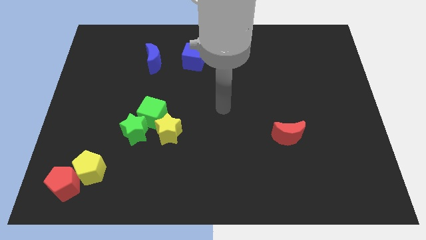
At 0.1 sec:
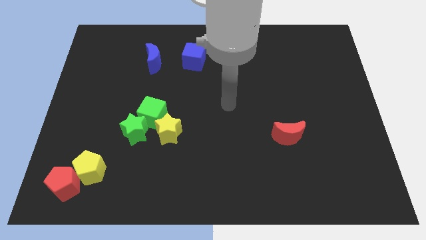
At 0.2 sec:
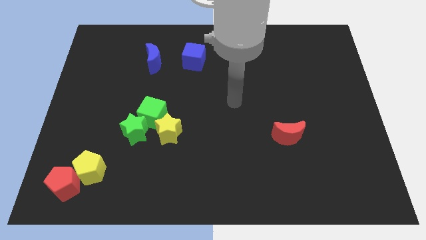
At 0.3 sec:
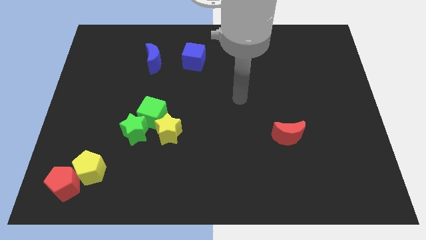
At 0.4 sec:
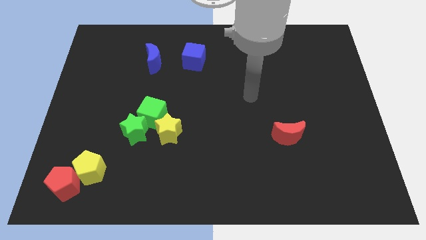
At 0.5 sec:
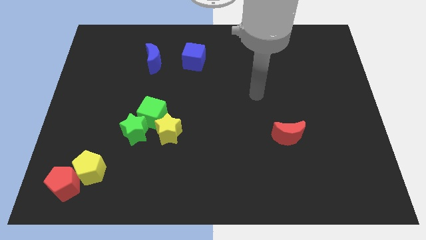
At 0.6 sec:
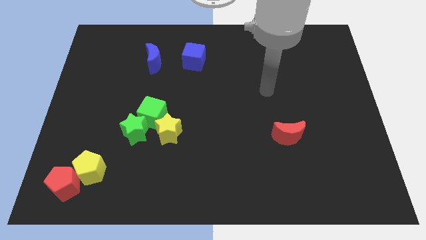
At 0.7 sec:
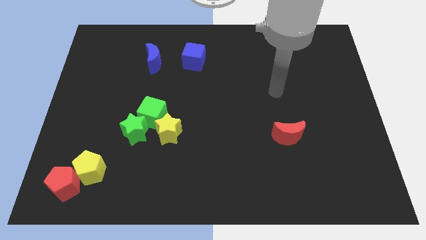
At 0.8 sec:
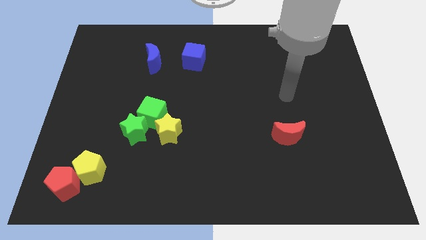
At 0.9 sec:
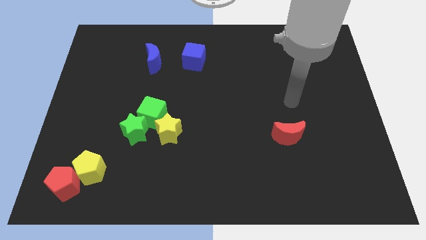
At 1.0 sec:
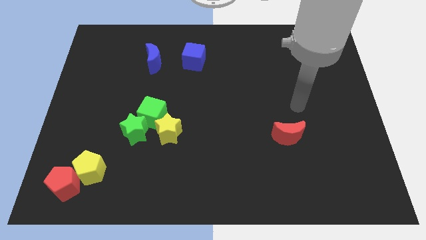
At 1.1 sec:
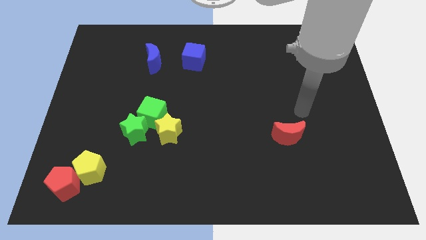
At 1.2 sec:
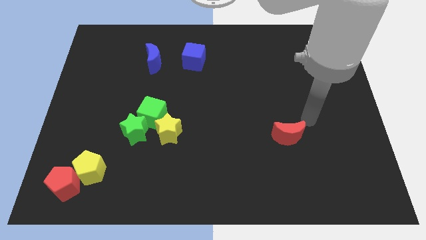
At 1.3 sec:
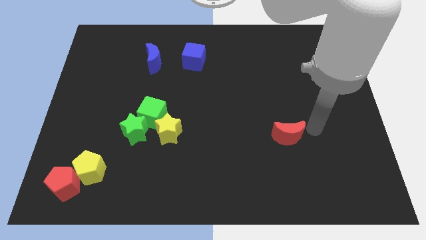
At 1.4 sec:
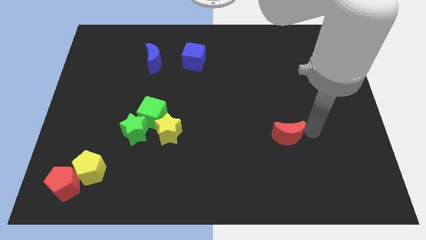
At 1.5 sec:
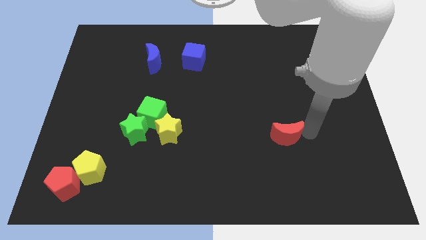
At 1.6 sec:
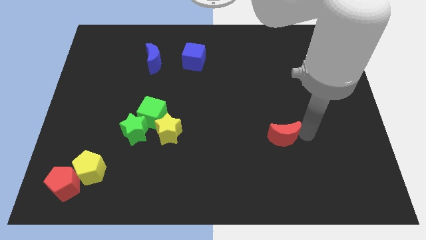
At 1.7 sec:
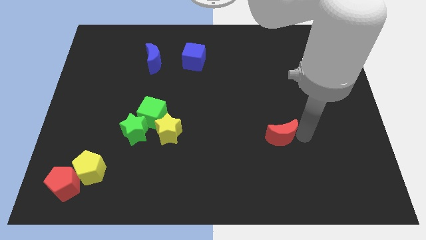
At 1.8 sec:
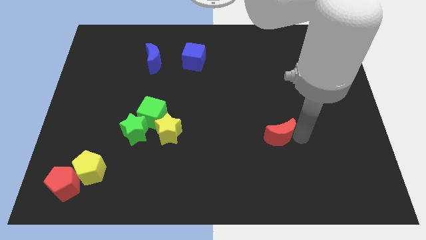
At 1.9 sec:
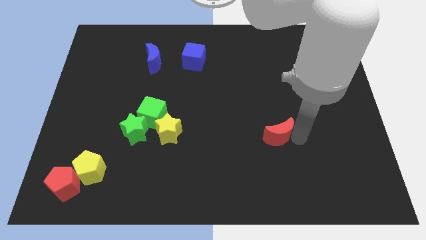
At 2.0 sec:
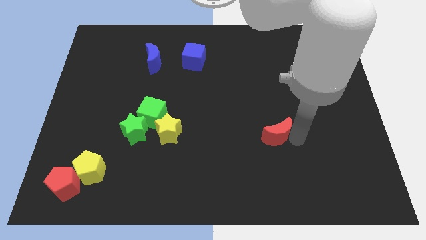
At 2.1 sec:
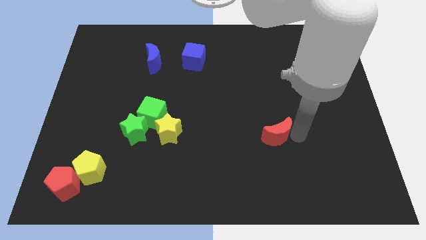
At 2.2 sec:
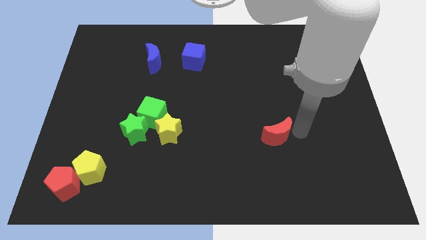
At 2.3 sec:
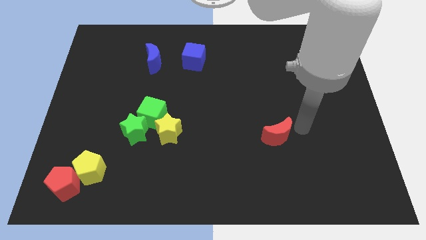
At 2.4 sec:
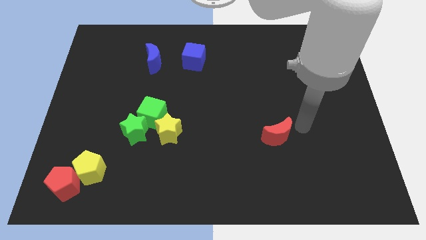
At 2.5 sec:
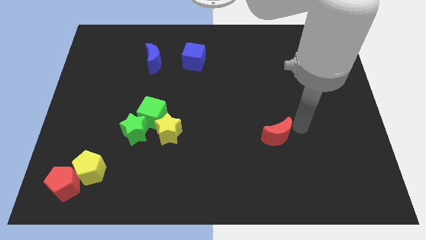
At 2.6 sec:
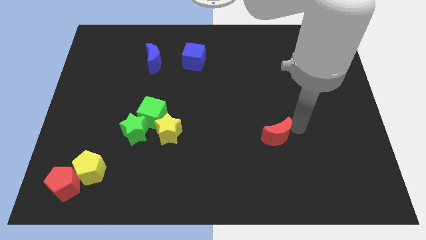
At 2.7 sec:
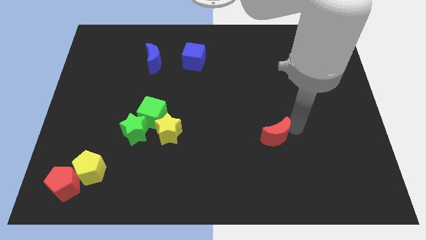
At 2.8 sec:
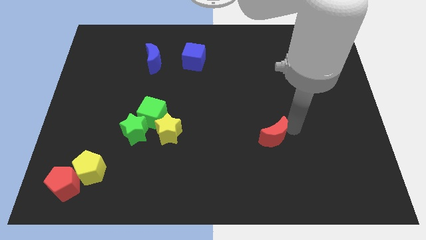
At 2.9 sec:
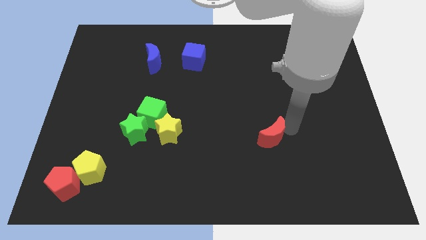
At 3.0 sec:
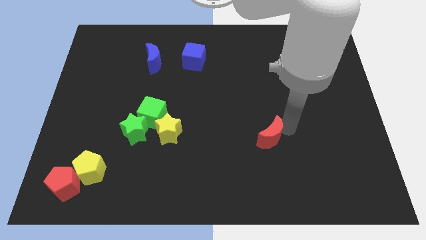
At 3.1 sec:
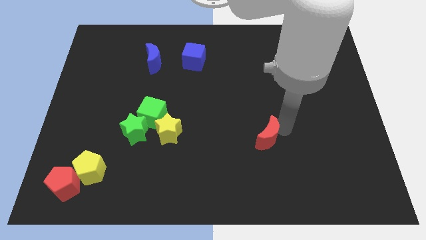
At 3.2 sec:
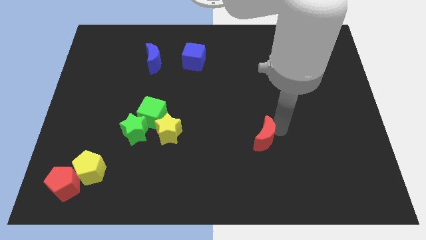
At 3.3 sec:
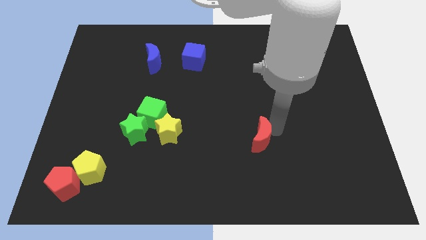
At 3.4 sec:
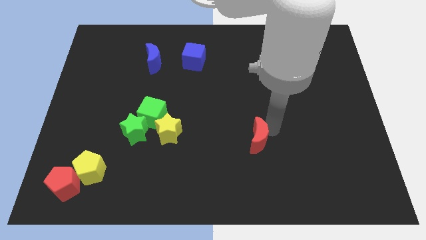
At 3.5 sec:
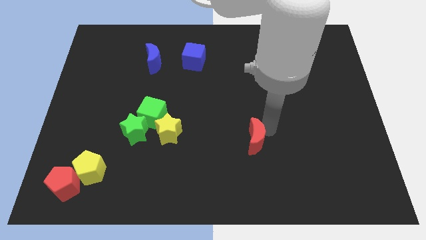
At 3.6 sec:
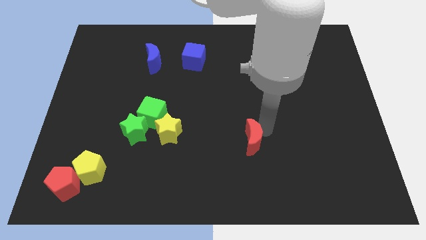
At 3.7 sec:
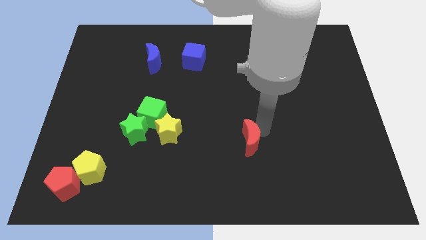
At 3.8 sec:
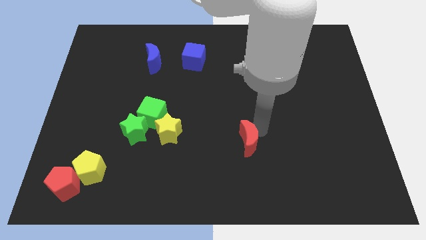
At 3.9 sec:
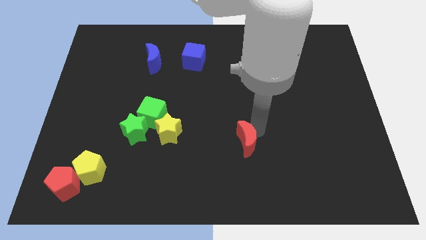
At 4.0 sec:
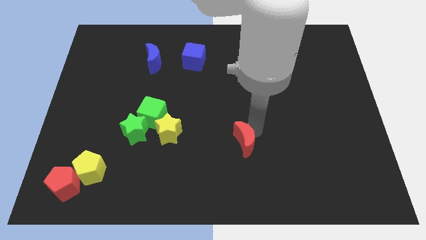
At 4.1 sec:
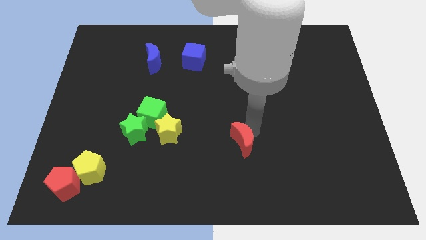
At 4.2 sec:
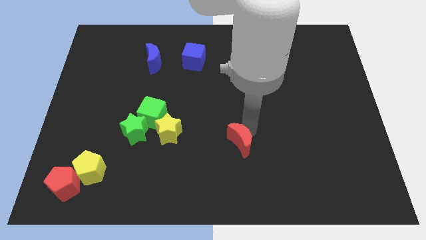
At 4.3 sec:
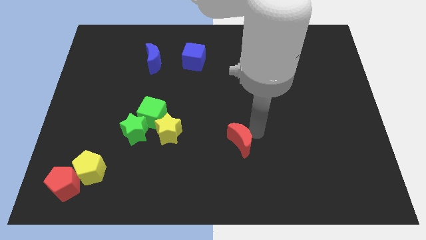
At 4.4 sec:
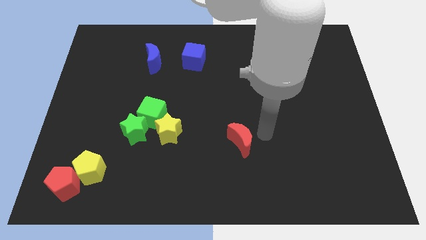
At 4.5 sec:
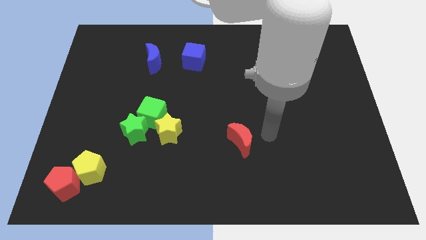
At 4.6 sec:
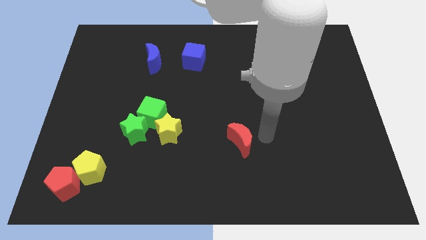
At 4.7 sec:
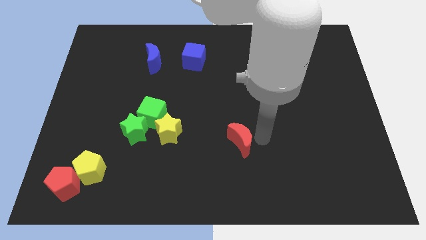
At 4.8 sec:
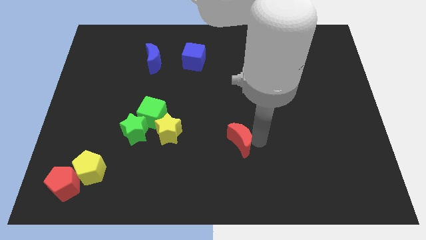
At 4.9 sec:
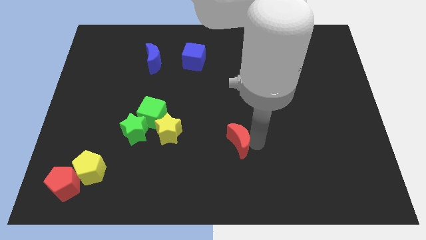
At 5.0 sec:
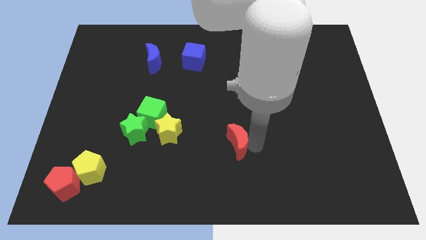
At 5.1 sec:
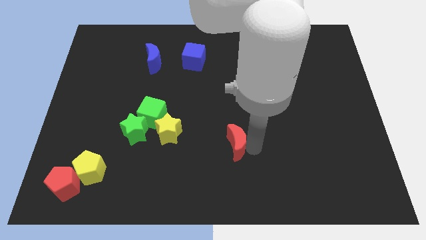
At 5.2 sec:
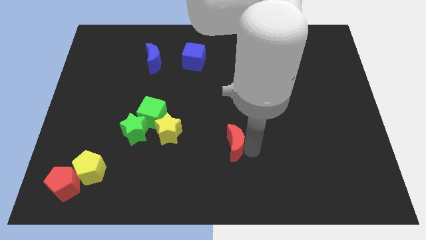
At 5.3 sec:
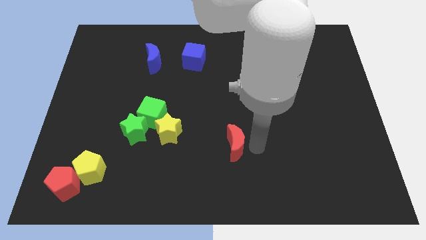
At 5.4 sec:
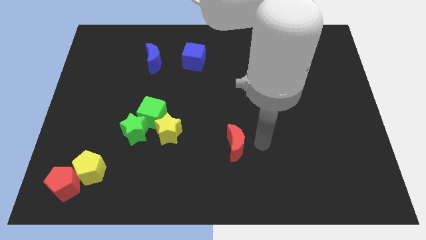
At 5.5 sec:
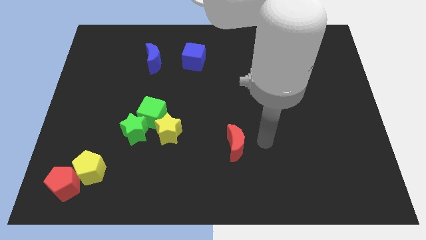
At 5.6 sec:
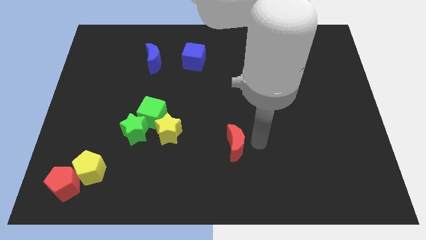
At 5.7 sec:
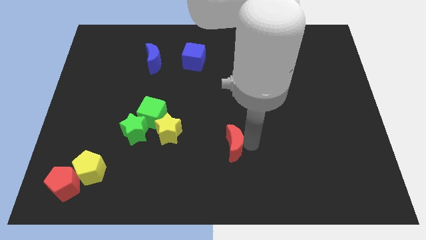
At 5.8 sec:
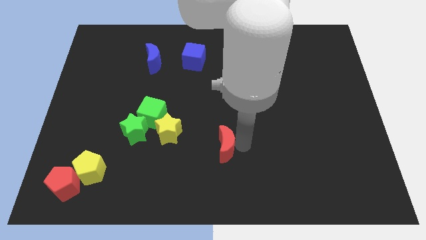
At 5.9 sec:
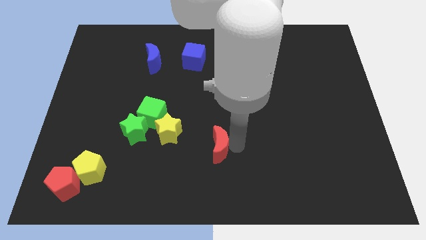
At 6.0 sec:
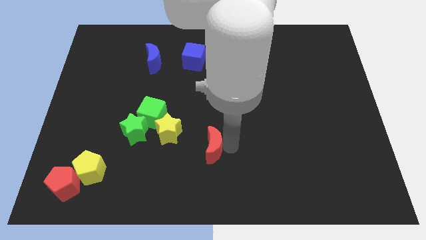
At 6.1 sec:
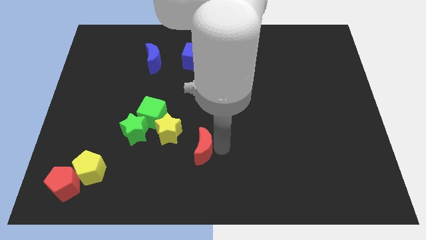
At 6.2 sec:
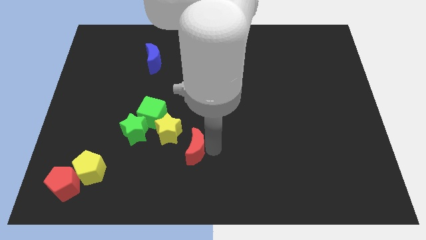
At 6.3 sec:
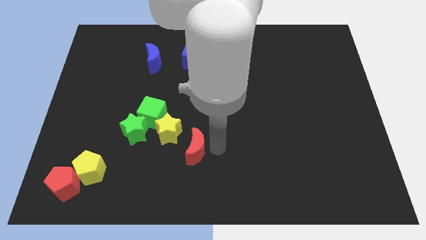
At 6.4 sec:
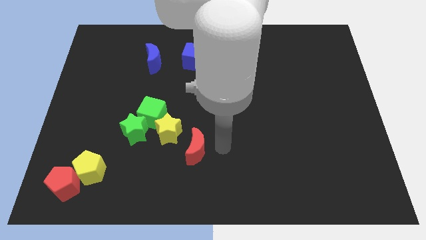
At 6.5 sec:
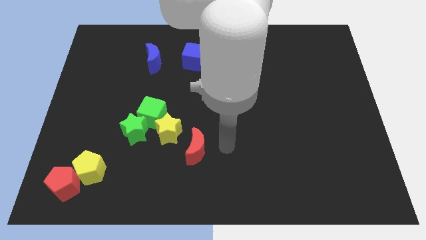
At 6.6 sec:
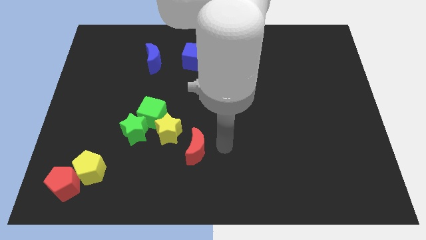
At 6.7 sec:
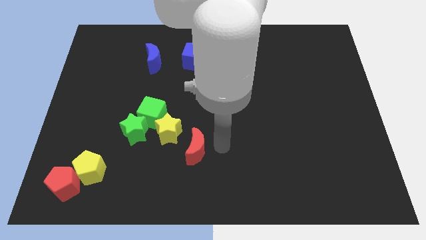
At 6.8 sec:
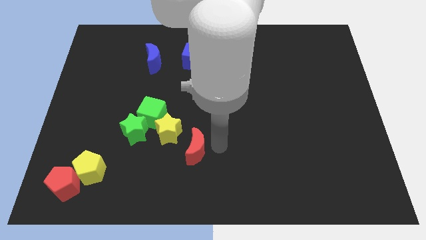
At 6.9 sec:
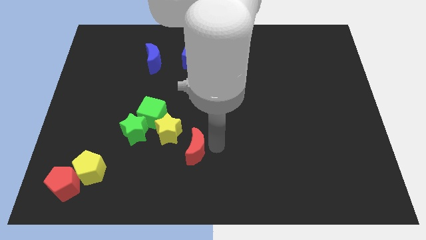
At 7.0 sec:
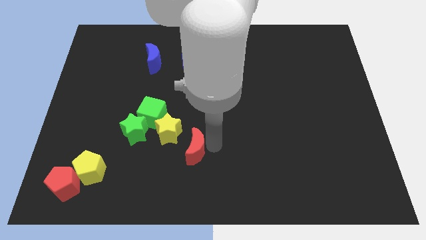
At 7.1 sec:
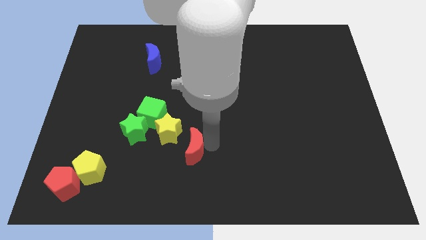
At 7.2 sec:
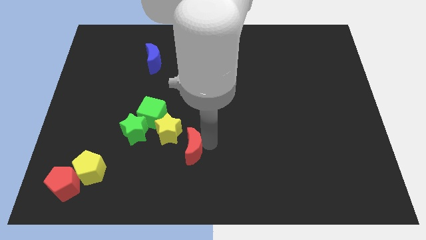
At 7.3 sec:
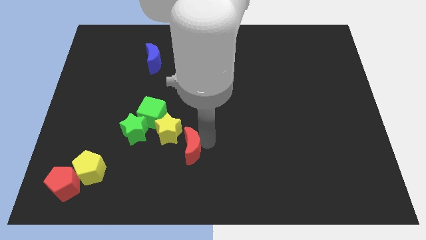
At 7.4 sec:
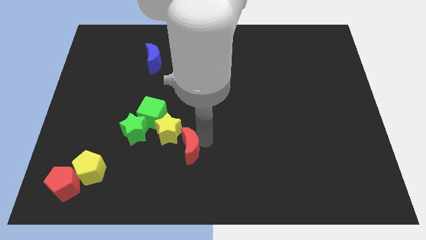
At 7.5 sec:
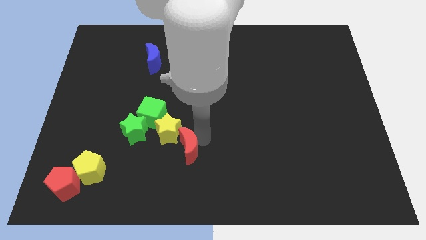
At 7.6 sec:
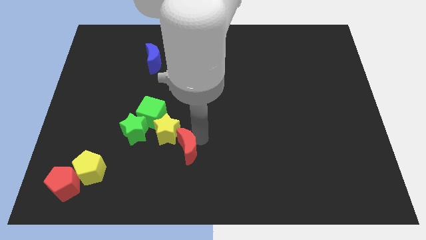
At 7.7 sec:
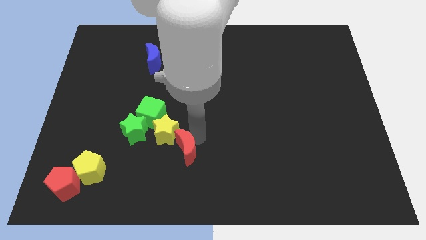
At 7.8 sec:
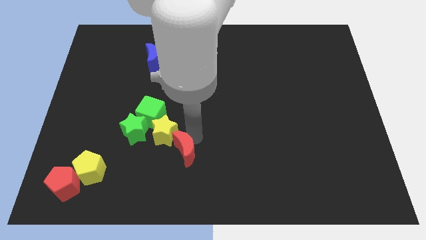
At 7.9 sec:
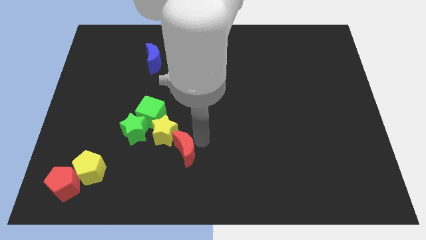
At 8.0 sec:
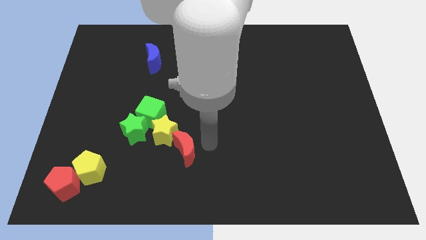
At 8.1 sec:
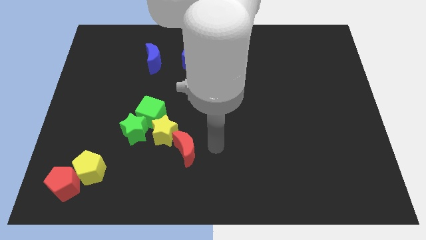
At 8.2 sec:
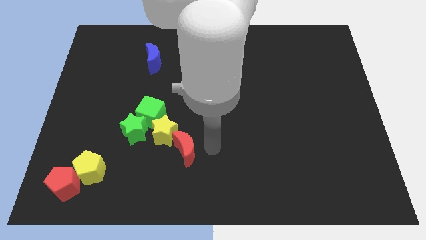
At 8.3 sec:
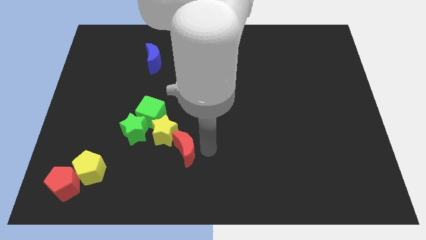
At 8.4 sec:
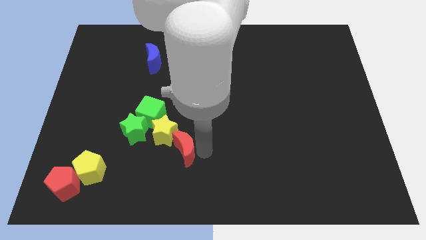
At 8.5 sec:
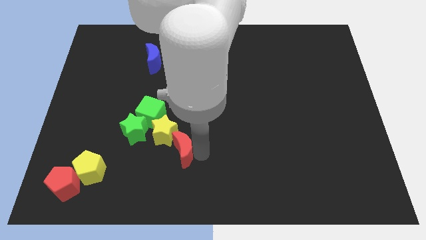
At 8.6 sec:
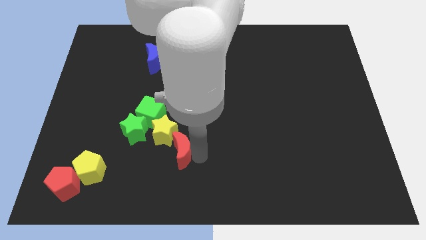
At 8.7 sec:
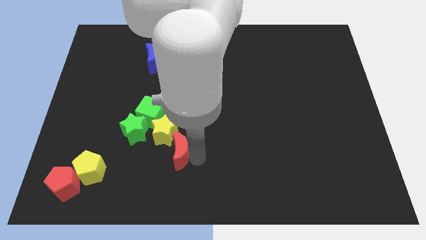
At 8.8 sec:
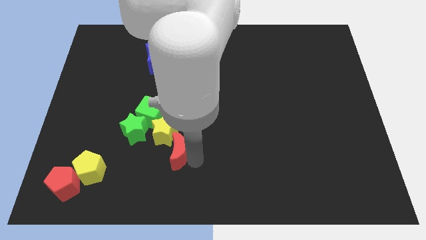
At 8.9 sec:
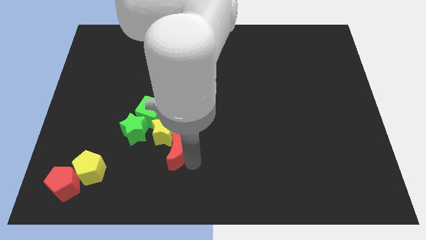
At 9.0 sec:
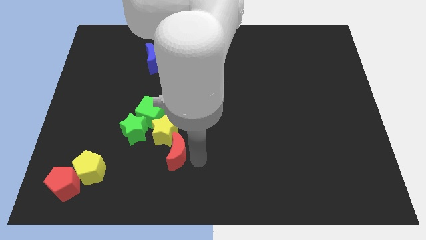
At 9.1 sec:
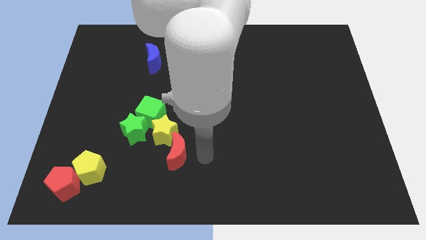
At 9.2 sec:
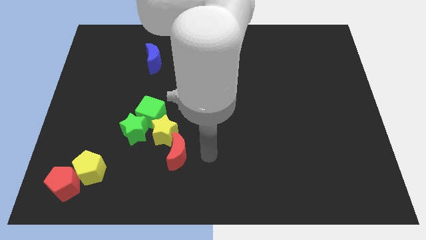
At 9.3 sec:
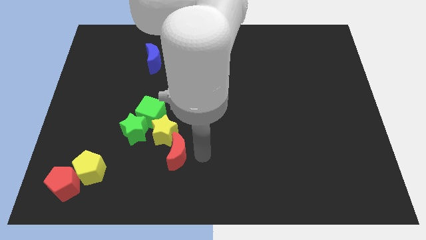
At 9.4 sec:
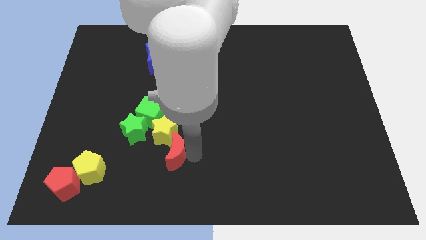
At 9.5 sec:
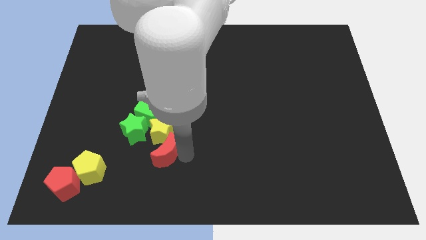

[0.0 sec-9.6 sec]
push the red moon to the bottom of the green cube
